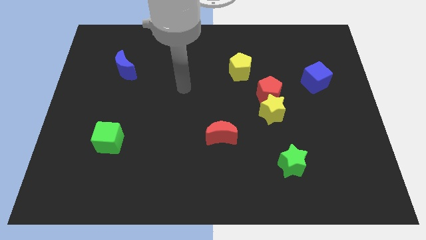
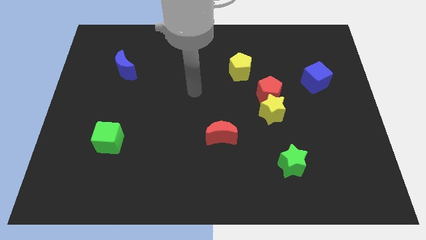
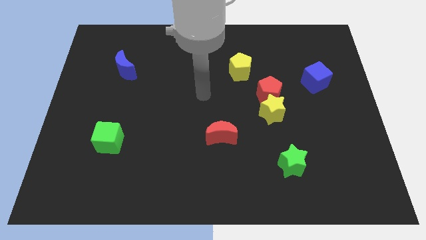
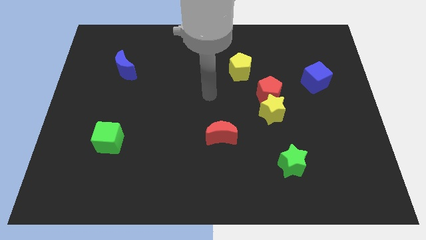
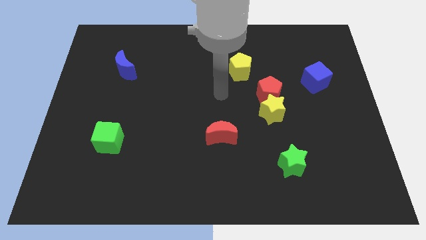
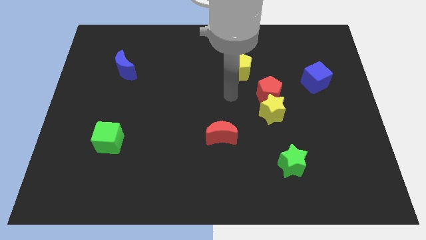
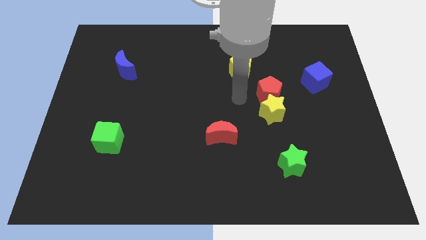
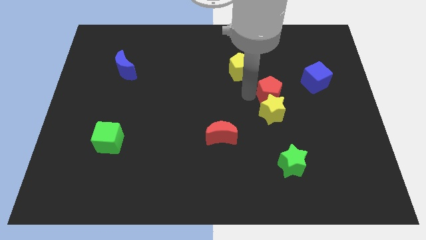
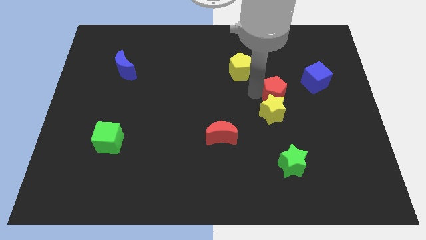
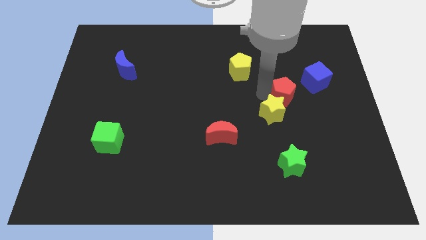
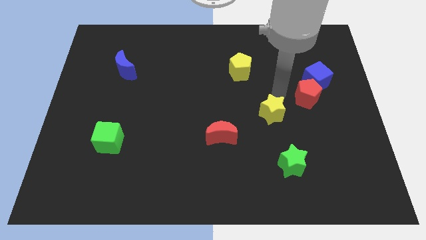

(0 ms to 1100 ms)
move the yellow star away from the red pentagon

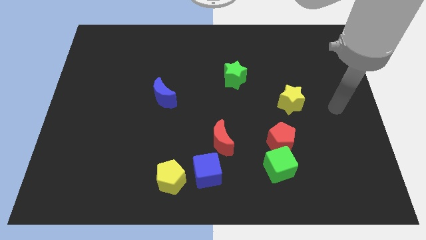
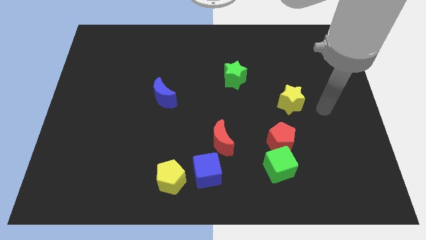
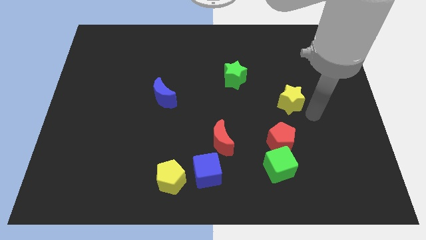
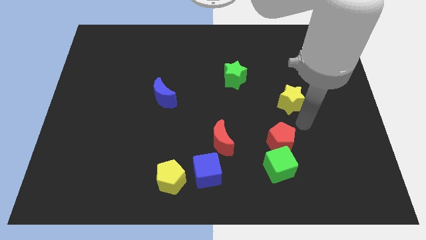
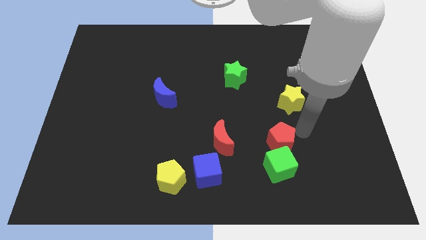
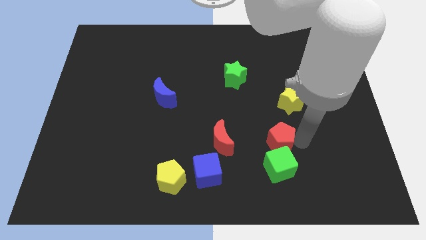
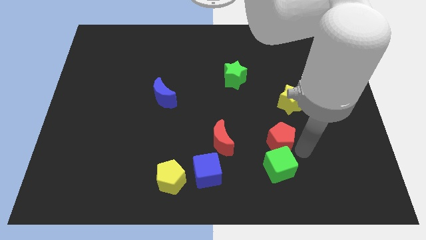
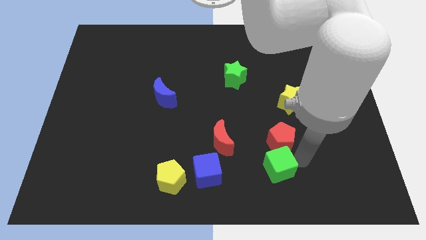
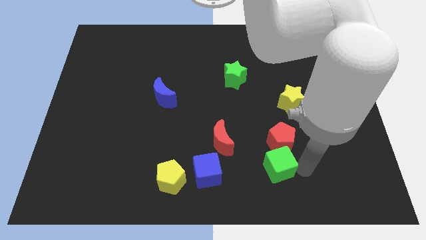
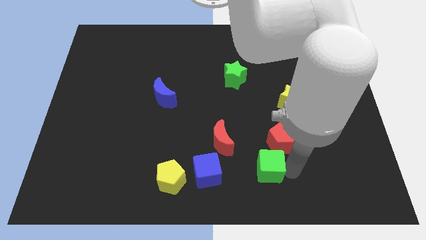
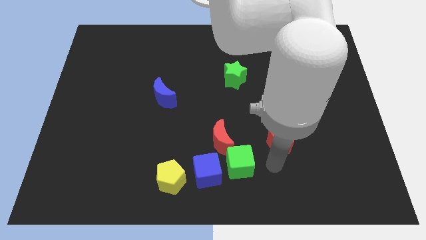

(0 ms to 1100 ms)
move the red pentagon away from the green cube

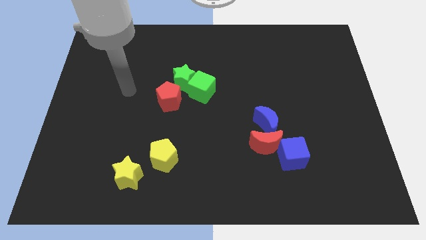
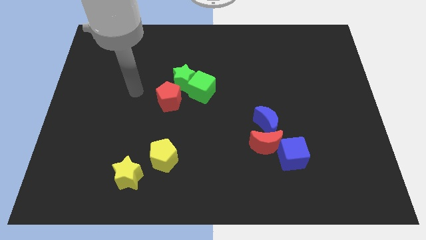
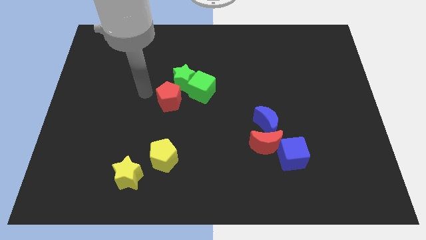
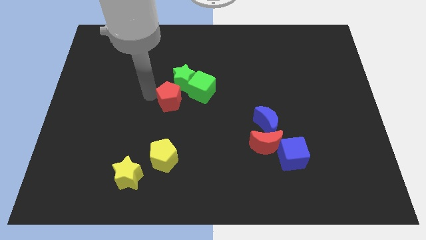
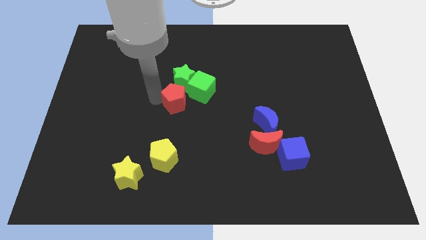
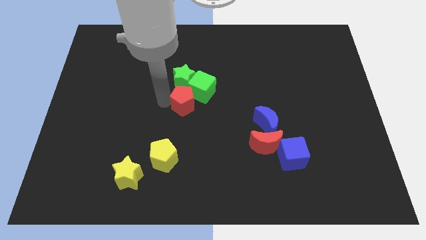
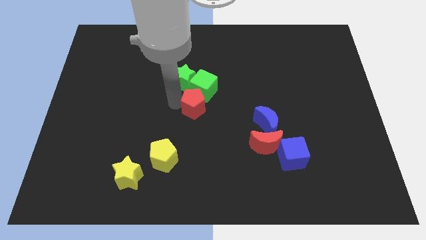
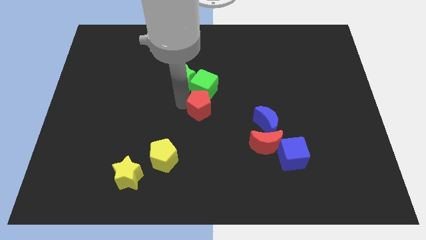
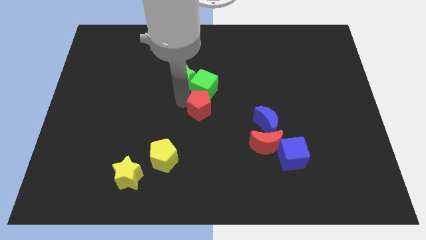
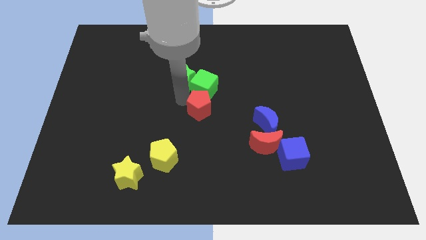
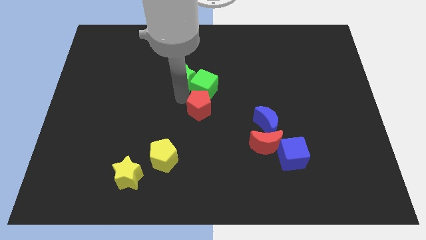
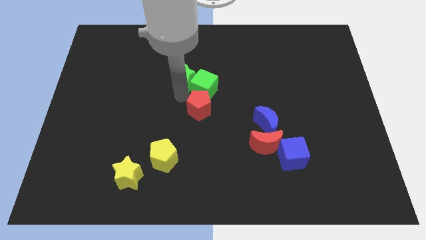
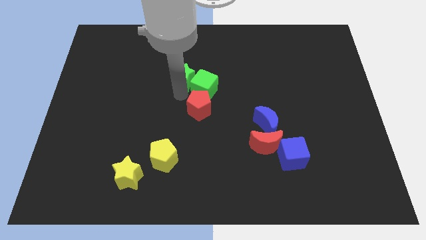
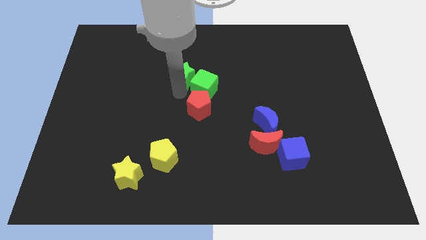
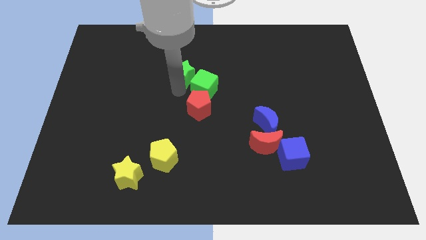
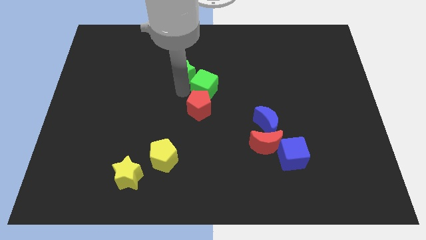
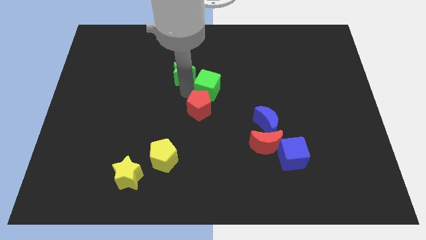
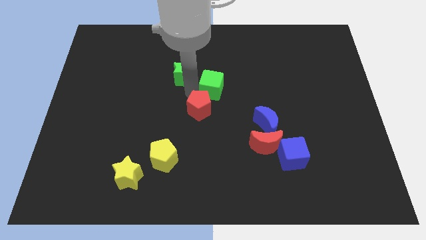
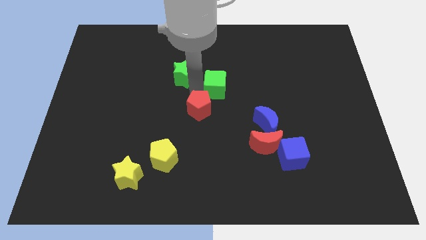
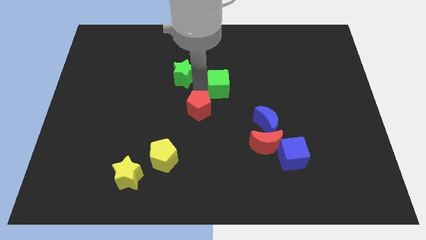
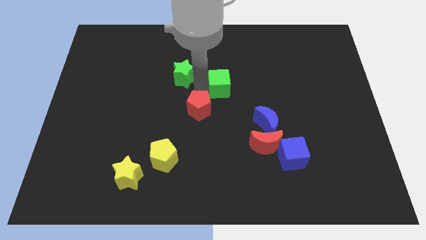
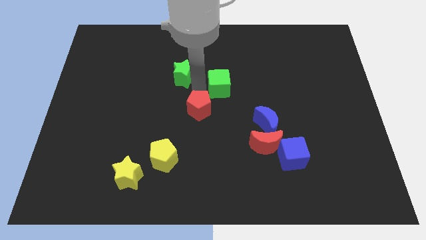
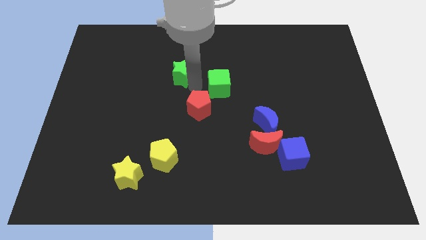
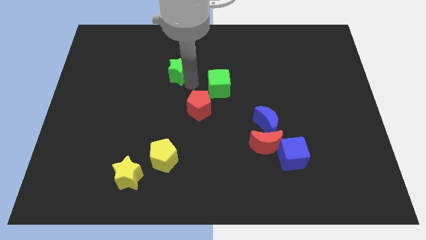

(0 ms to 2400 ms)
pull the green star apart from the green cube and red pentagon

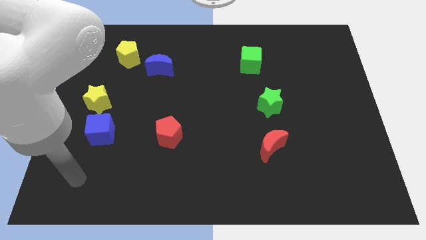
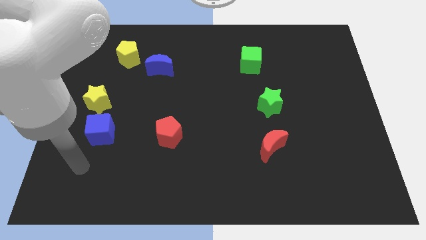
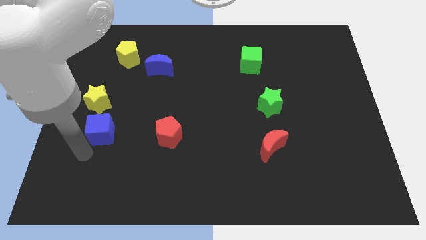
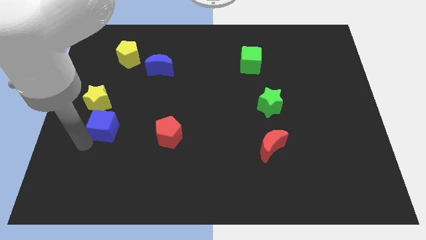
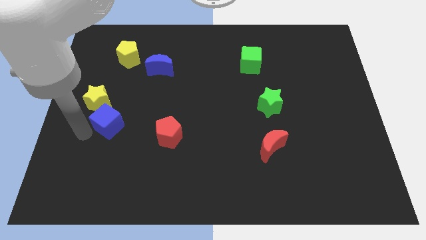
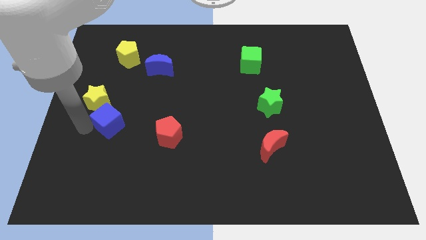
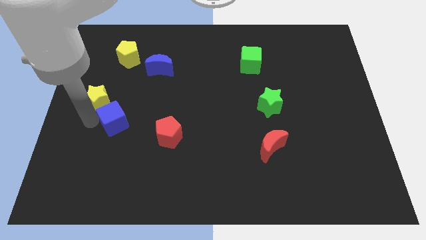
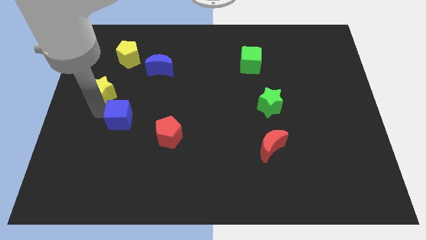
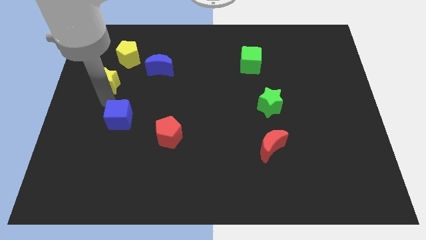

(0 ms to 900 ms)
move the blue cube away from the yellow star

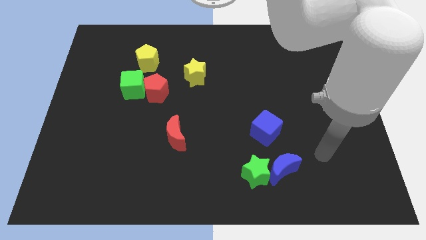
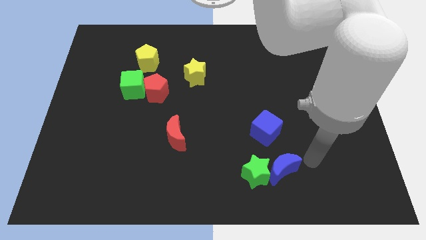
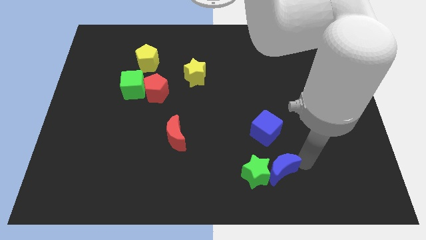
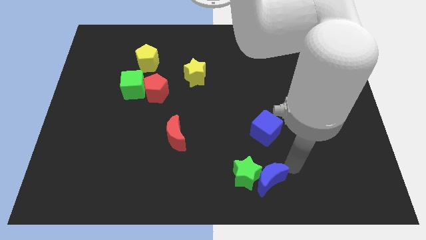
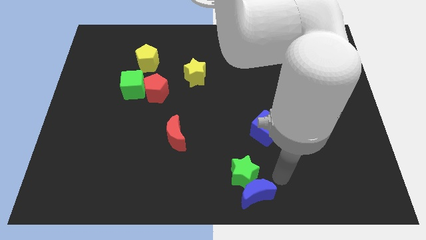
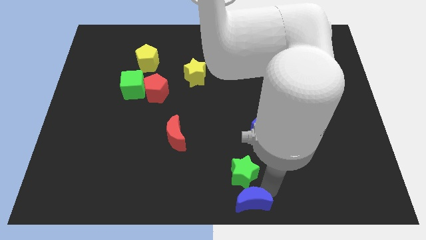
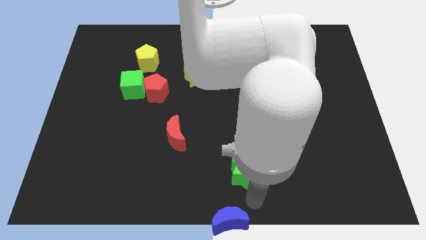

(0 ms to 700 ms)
separate the green star from the blue moon

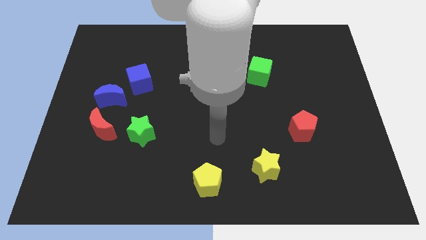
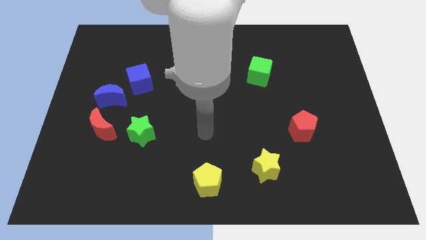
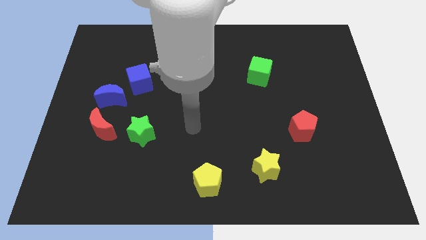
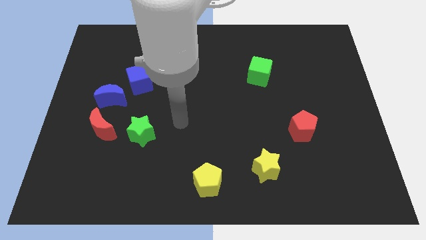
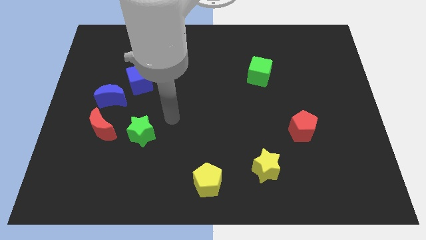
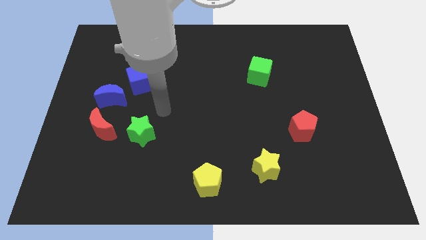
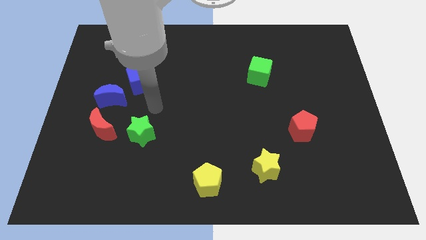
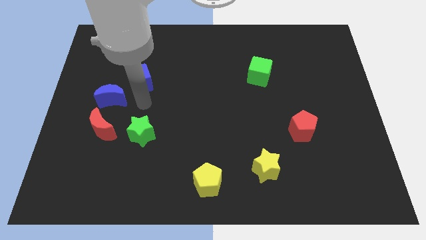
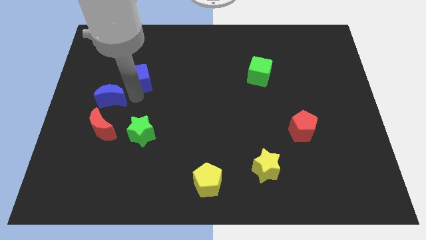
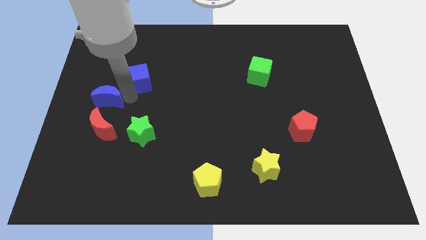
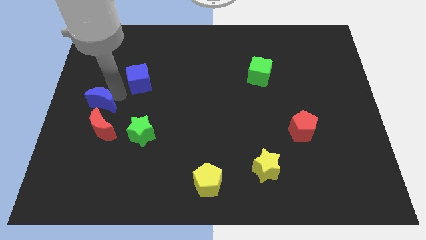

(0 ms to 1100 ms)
separate the blue cube from the blue moon

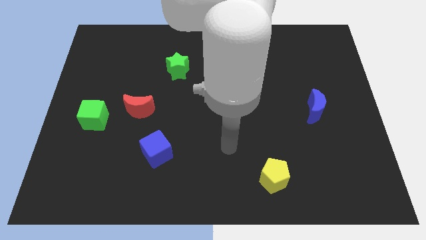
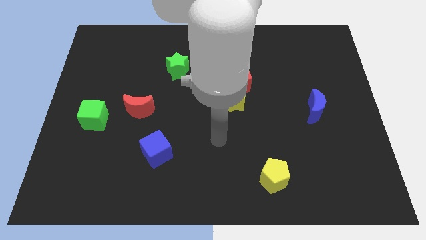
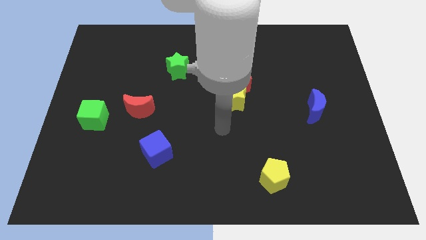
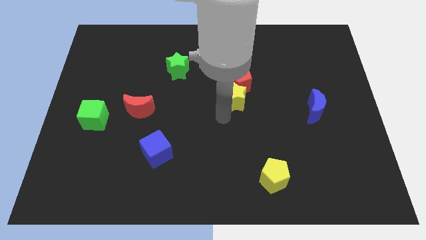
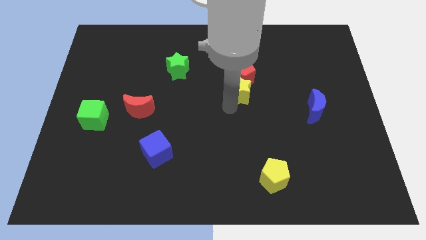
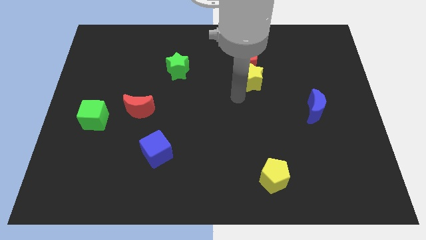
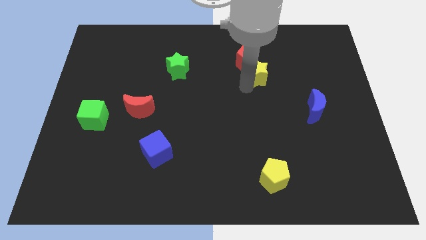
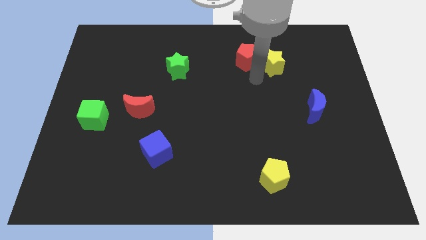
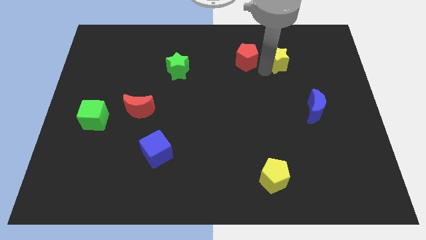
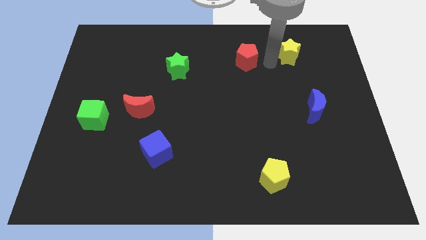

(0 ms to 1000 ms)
separate the red pentagon from the yellow star

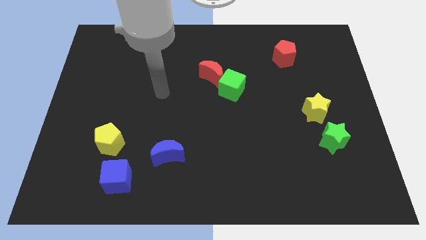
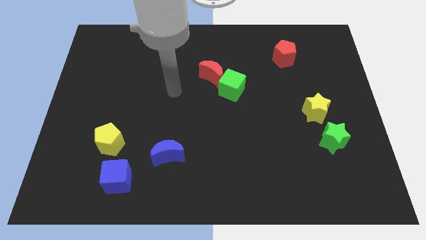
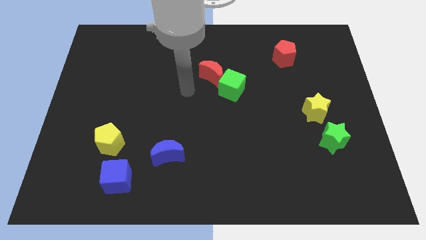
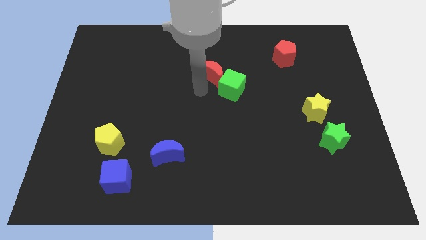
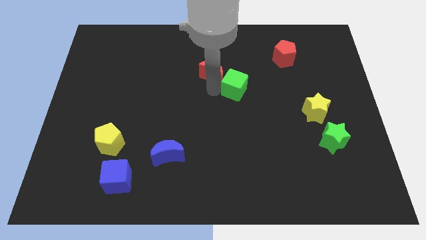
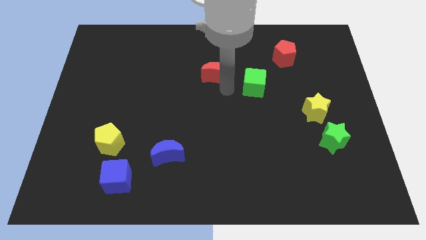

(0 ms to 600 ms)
move the red moon away from the green cube

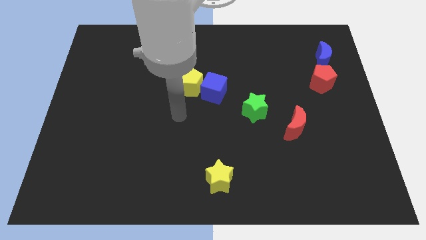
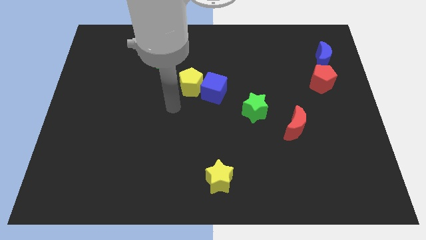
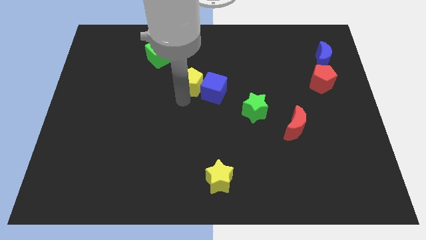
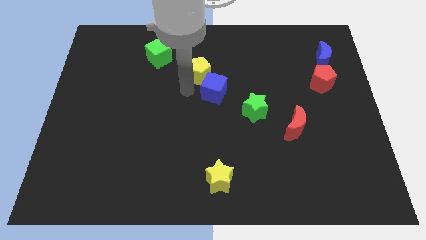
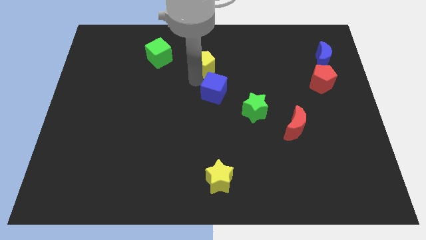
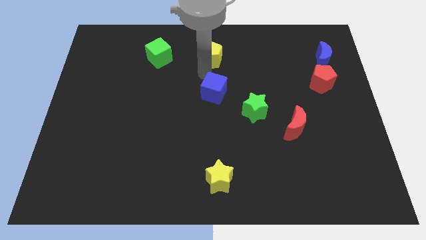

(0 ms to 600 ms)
move the blue cube away from the yellow pentagon
